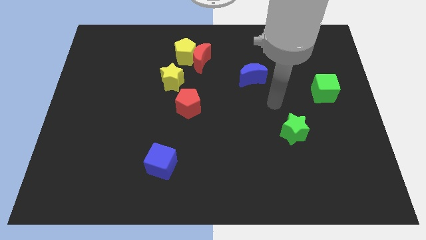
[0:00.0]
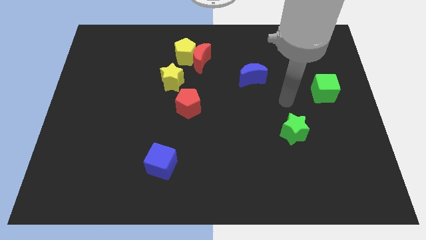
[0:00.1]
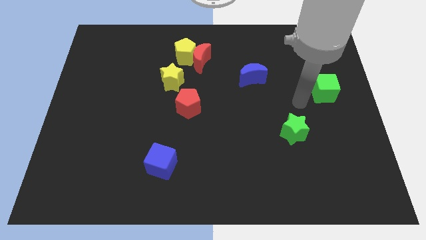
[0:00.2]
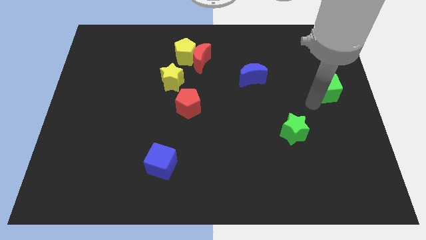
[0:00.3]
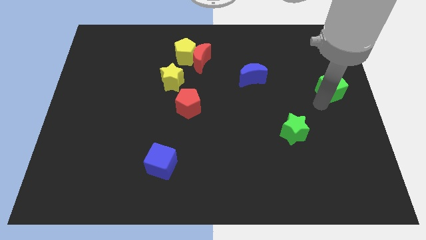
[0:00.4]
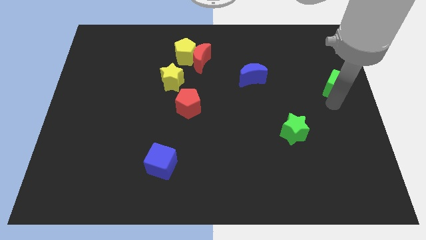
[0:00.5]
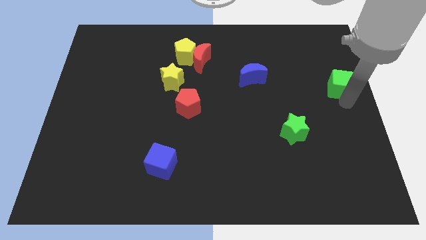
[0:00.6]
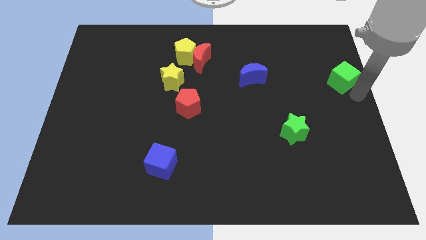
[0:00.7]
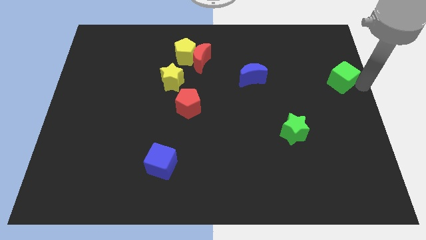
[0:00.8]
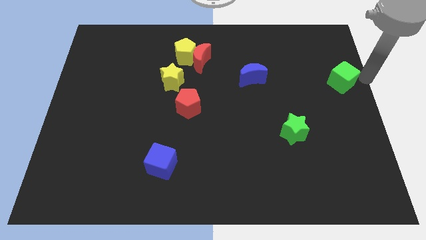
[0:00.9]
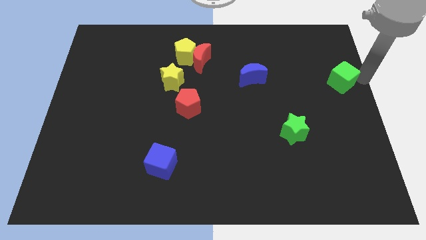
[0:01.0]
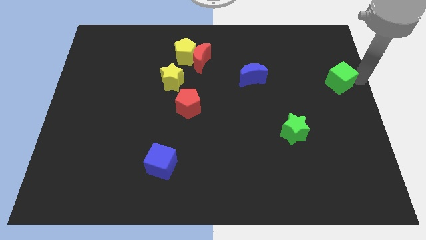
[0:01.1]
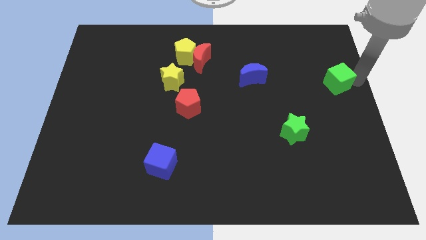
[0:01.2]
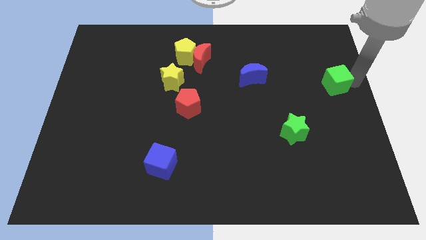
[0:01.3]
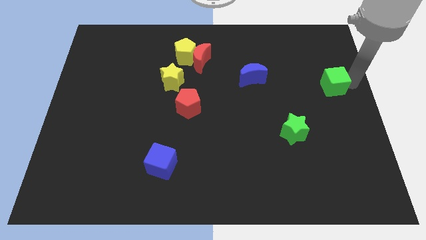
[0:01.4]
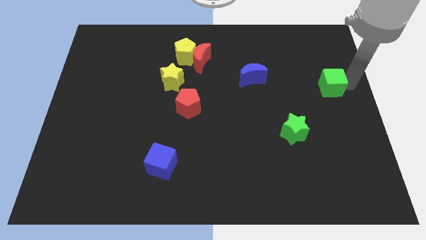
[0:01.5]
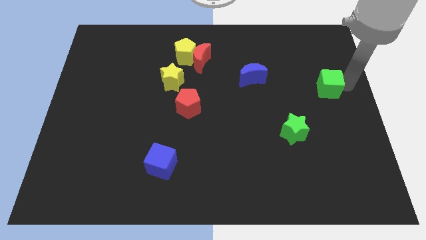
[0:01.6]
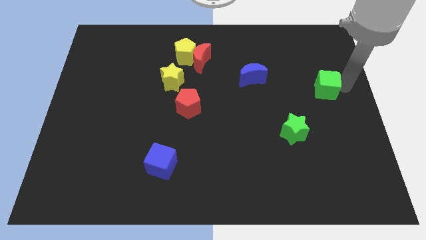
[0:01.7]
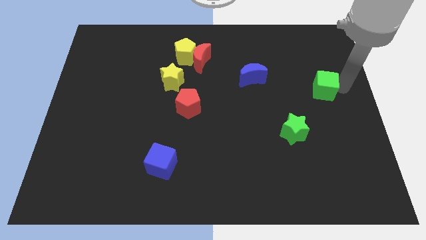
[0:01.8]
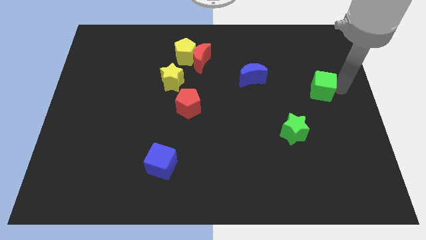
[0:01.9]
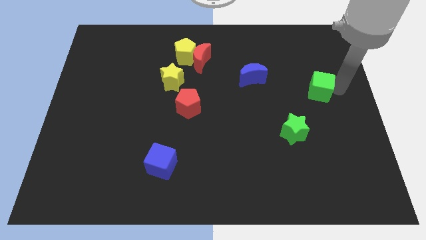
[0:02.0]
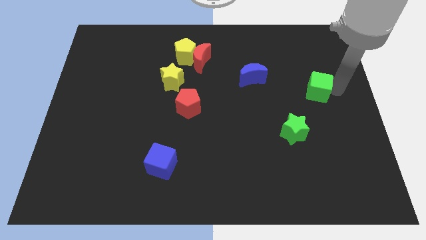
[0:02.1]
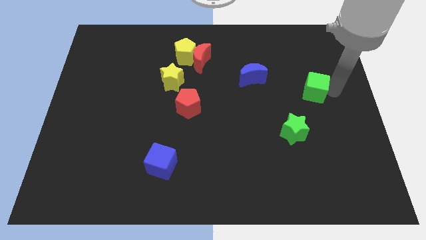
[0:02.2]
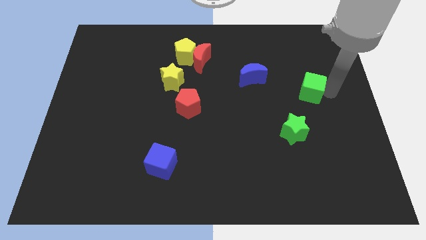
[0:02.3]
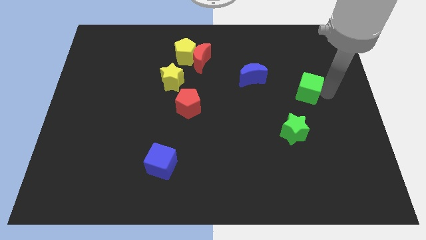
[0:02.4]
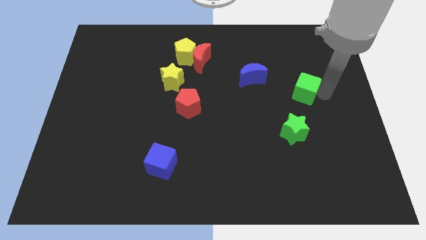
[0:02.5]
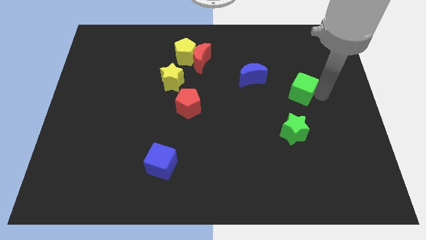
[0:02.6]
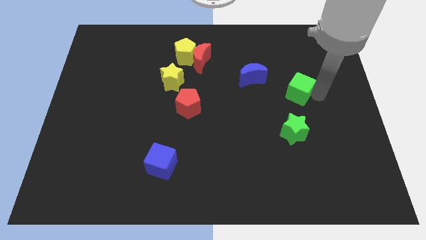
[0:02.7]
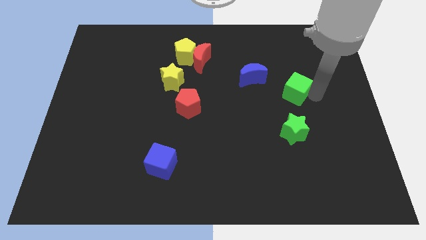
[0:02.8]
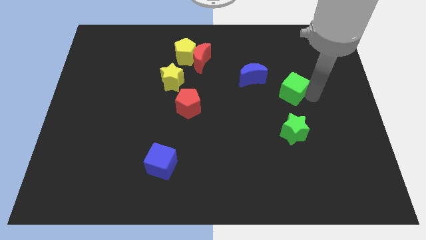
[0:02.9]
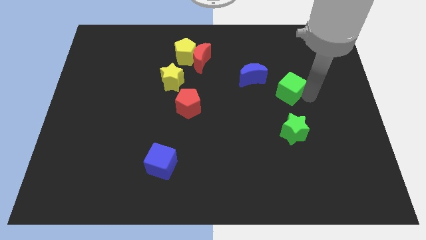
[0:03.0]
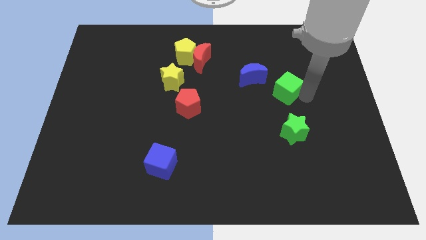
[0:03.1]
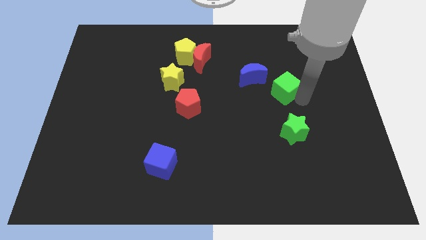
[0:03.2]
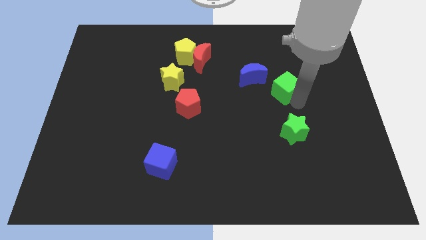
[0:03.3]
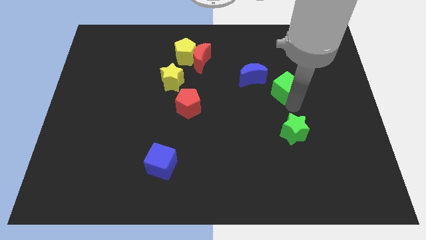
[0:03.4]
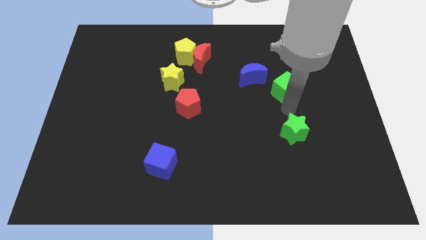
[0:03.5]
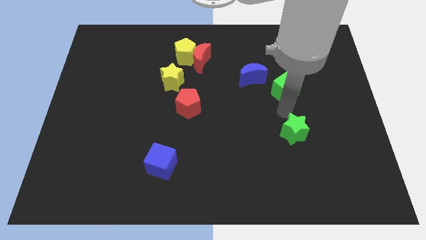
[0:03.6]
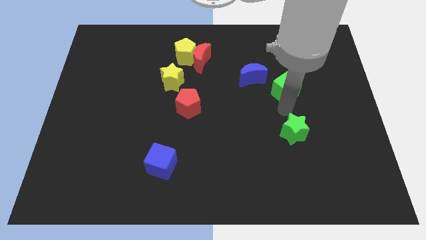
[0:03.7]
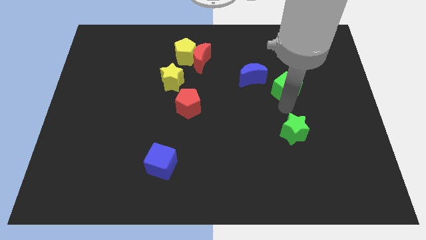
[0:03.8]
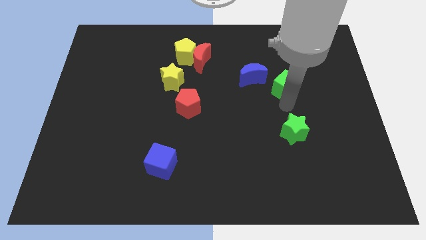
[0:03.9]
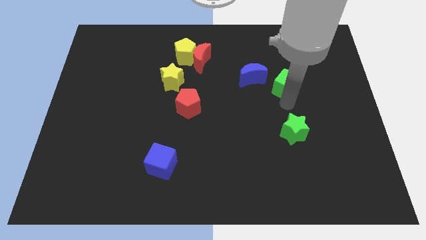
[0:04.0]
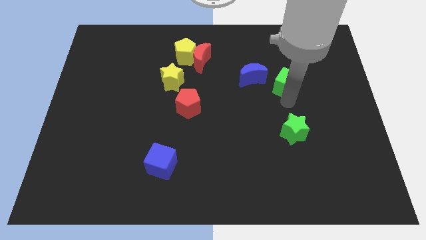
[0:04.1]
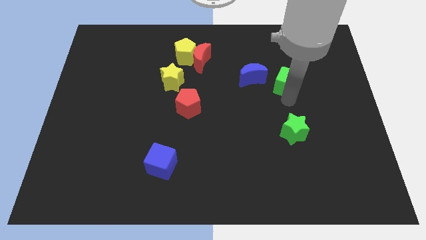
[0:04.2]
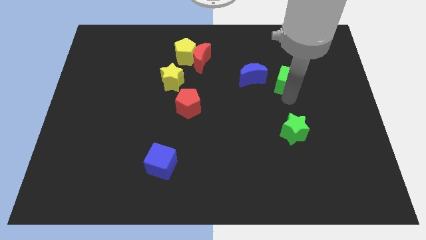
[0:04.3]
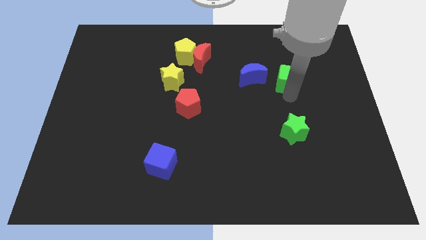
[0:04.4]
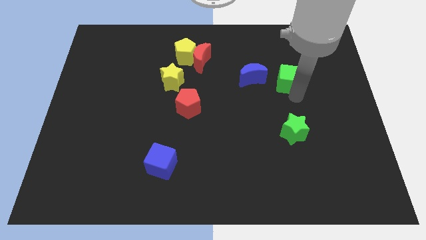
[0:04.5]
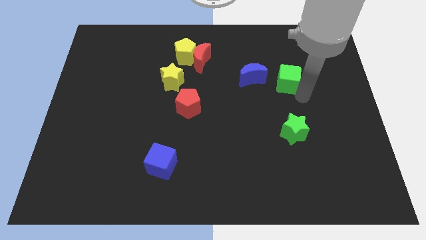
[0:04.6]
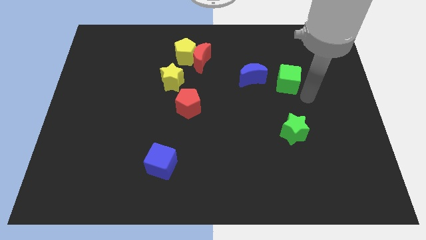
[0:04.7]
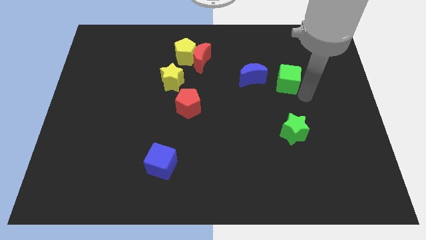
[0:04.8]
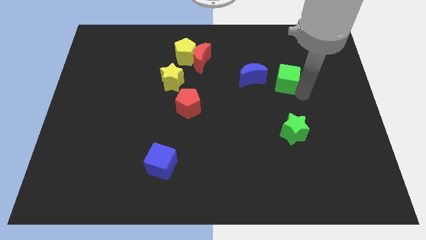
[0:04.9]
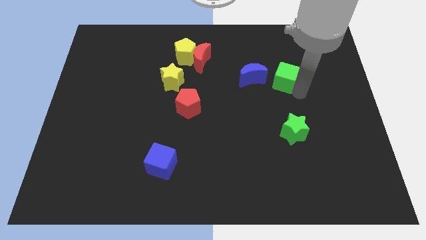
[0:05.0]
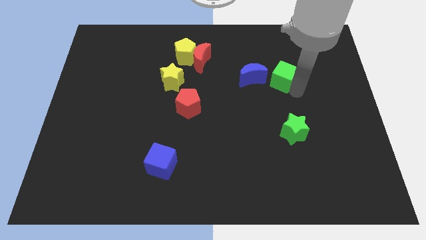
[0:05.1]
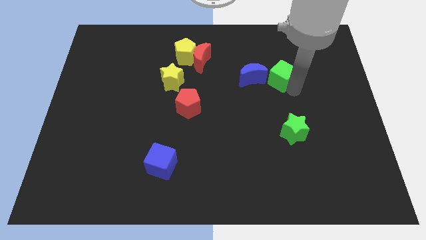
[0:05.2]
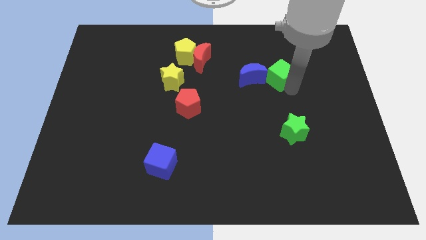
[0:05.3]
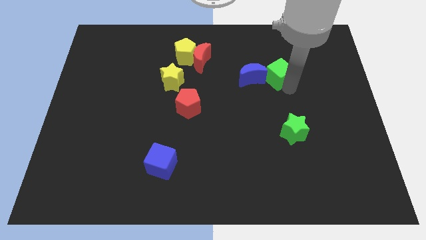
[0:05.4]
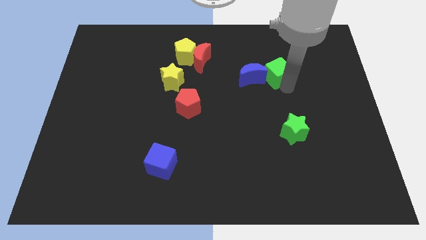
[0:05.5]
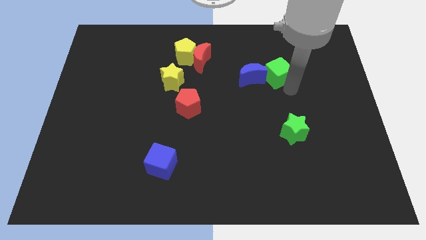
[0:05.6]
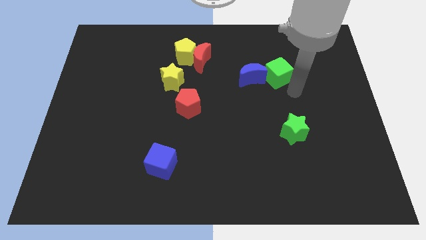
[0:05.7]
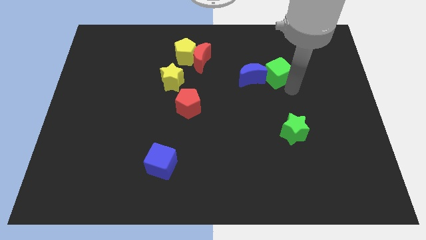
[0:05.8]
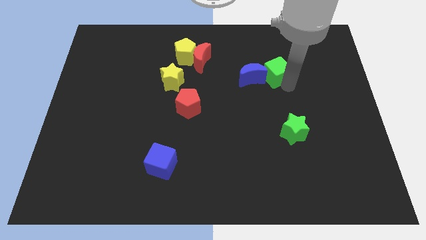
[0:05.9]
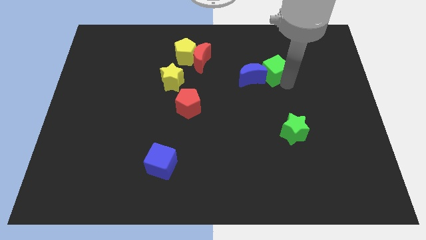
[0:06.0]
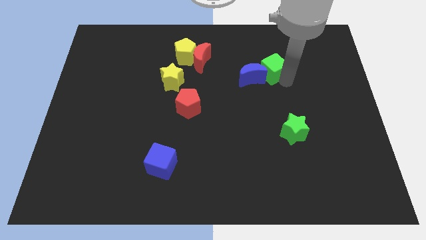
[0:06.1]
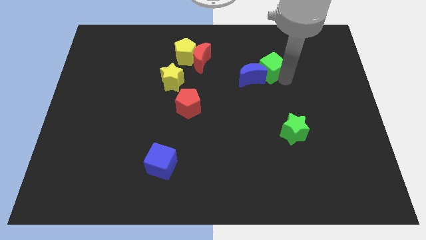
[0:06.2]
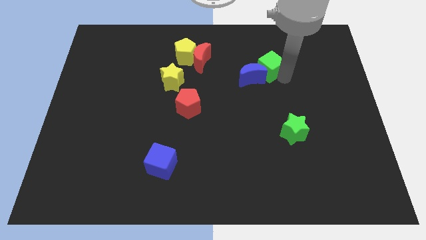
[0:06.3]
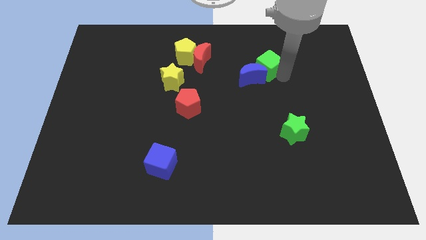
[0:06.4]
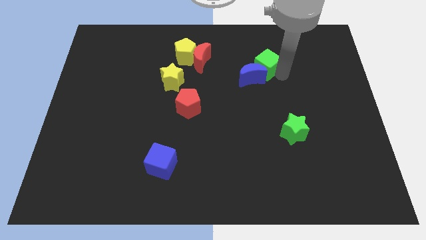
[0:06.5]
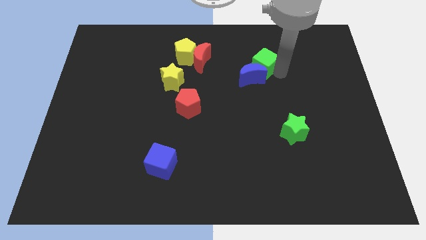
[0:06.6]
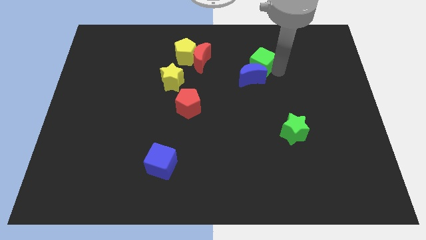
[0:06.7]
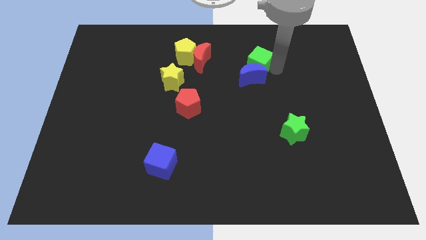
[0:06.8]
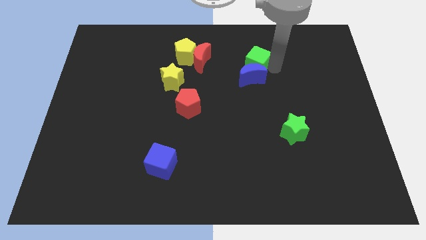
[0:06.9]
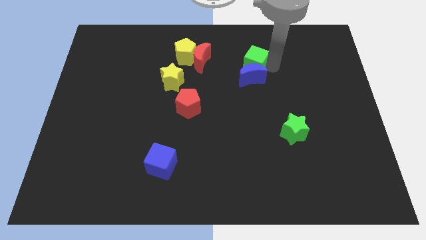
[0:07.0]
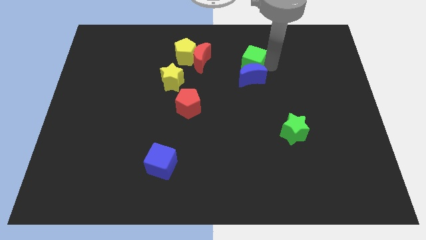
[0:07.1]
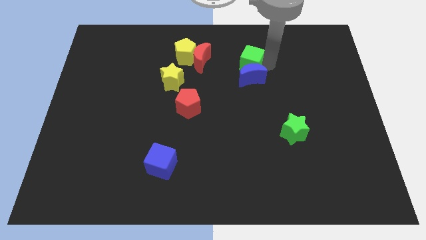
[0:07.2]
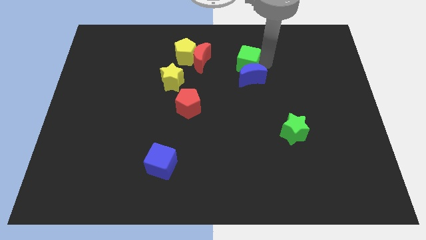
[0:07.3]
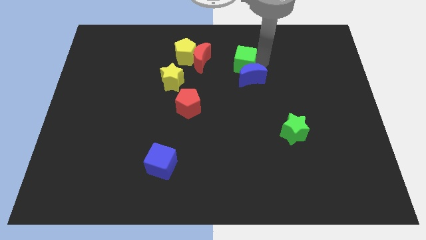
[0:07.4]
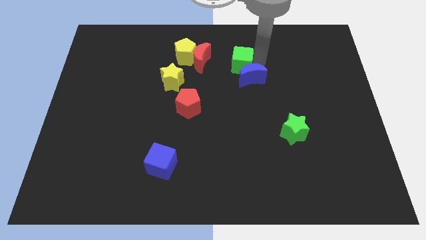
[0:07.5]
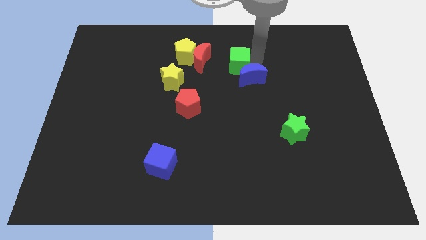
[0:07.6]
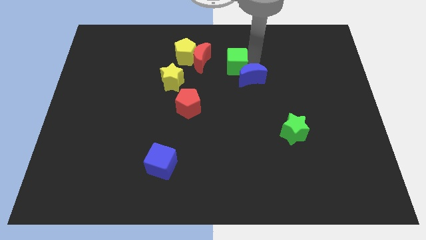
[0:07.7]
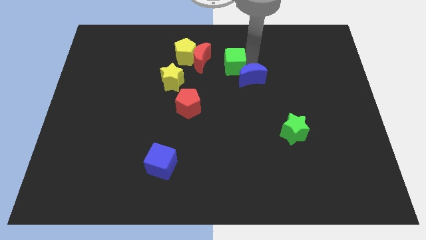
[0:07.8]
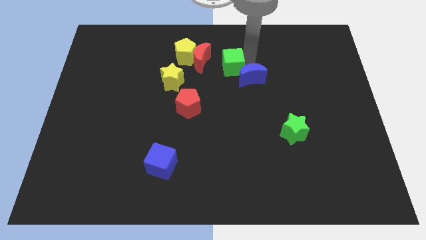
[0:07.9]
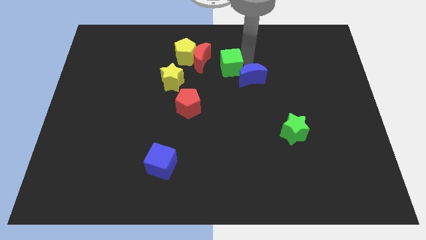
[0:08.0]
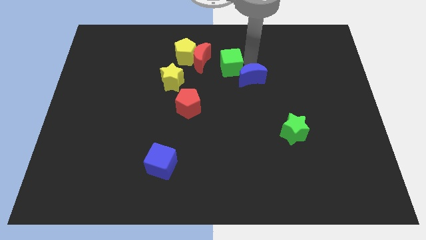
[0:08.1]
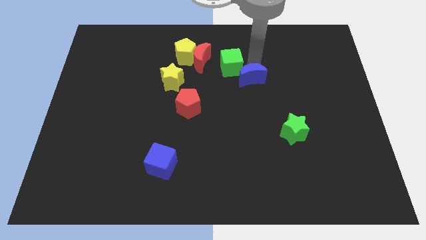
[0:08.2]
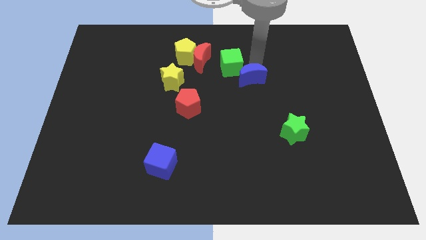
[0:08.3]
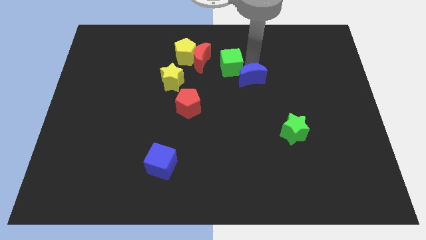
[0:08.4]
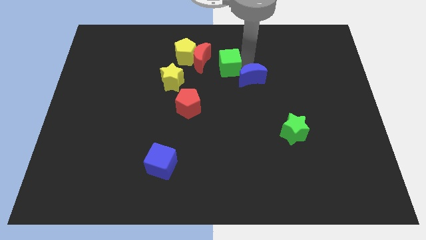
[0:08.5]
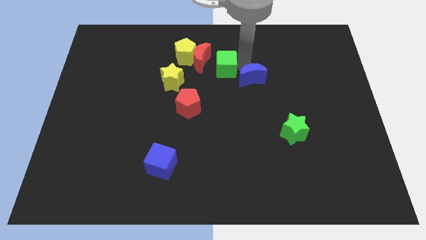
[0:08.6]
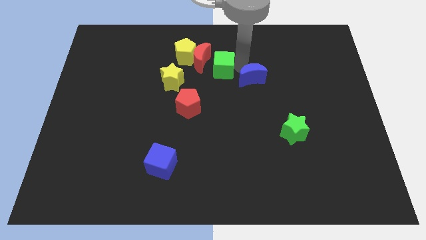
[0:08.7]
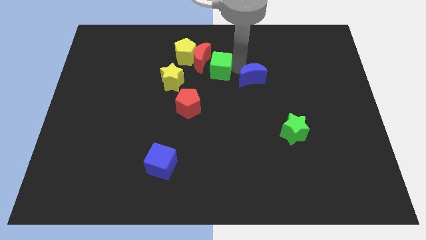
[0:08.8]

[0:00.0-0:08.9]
move the green cube to the red moon
